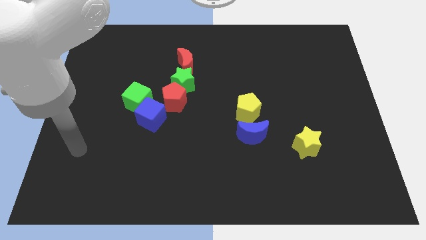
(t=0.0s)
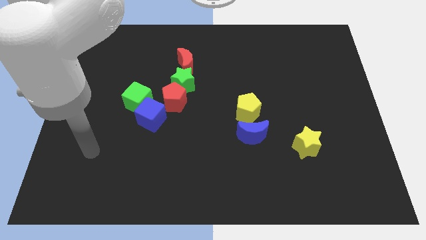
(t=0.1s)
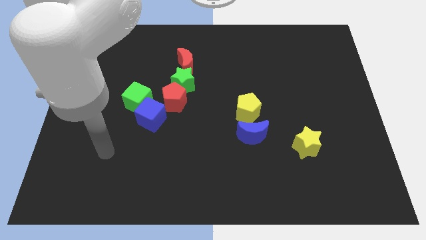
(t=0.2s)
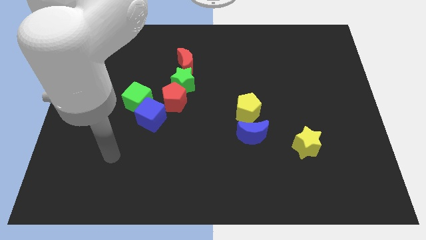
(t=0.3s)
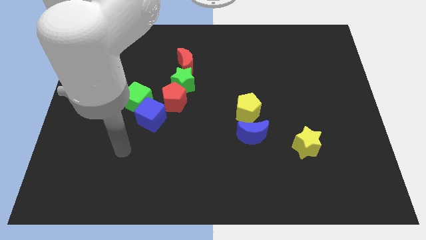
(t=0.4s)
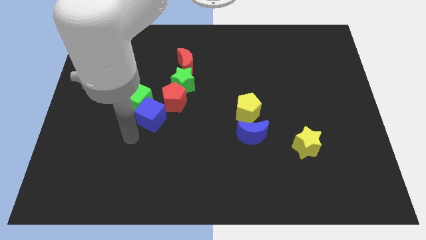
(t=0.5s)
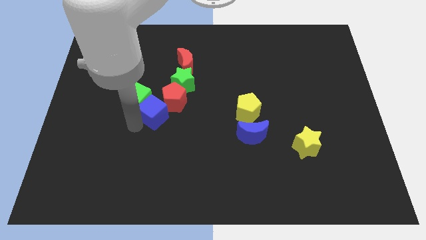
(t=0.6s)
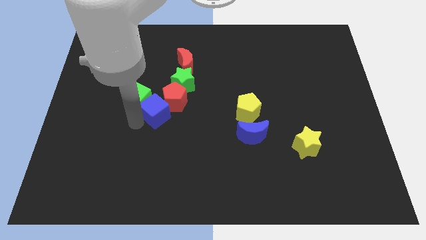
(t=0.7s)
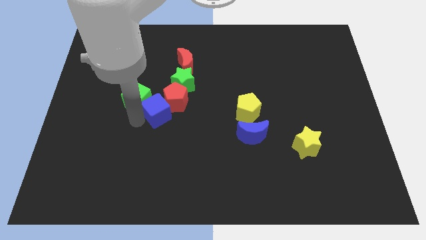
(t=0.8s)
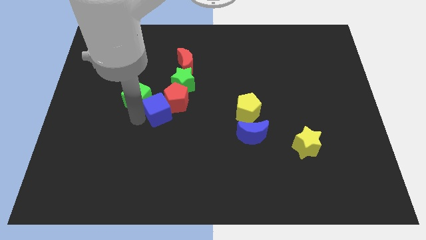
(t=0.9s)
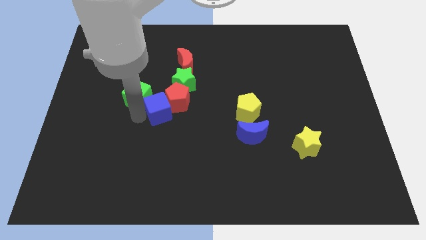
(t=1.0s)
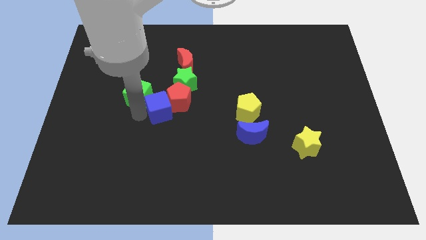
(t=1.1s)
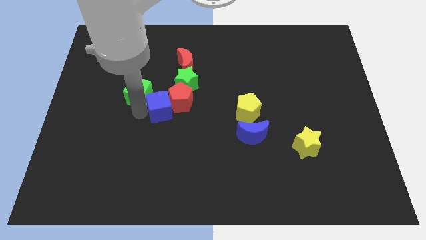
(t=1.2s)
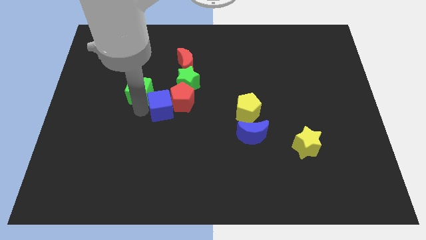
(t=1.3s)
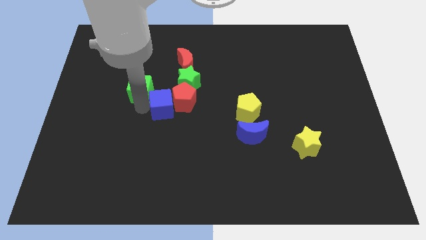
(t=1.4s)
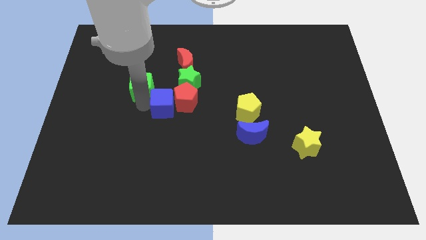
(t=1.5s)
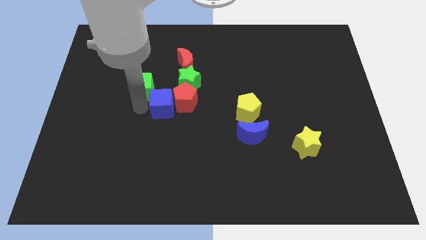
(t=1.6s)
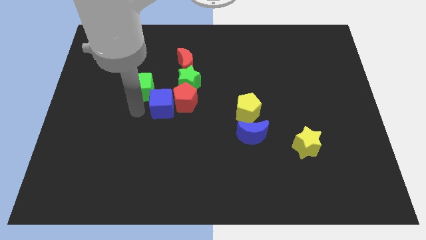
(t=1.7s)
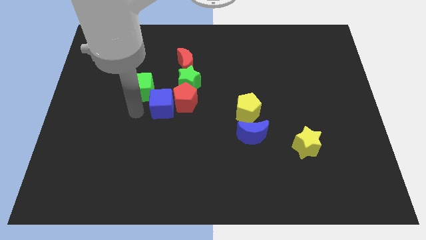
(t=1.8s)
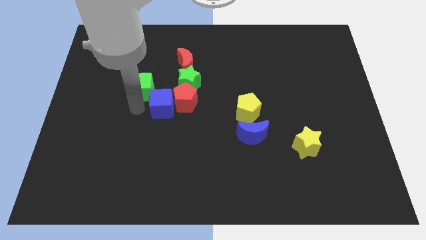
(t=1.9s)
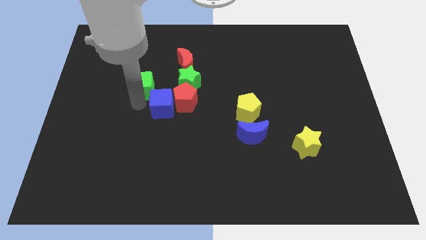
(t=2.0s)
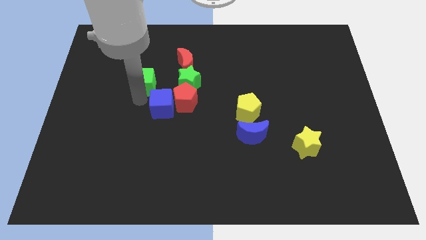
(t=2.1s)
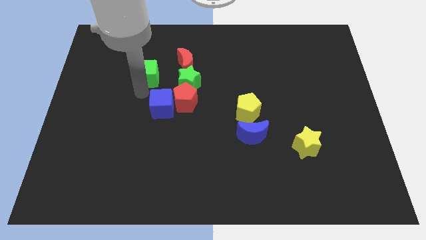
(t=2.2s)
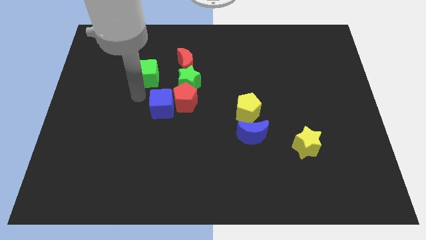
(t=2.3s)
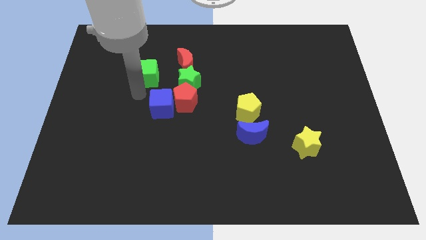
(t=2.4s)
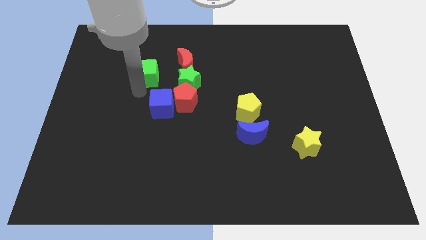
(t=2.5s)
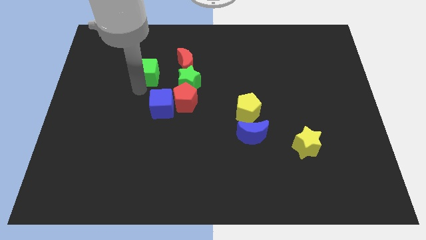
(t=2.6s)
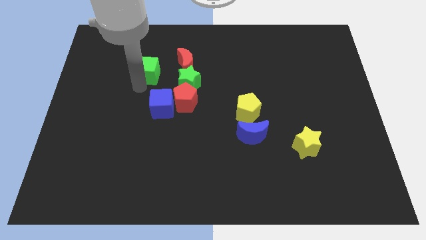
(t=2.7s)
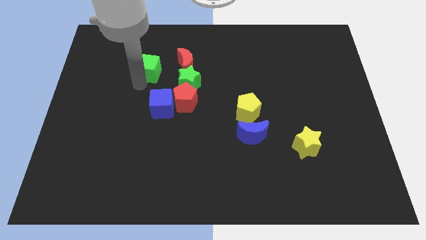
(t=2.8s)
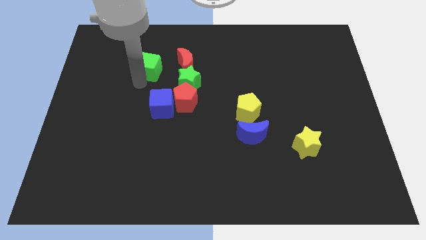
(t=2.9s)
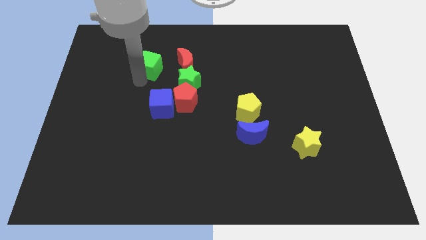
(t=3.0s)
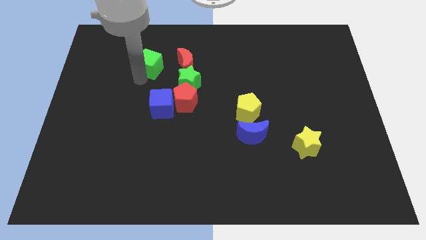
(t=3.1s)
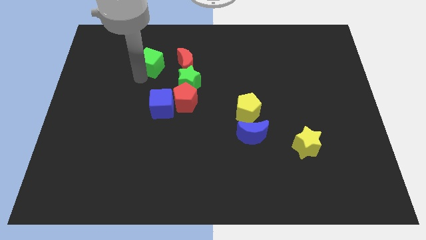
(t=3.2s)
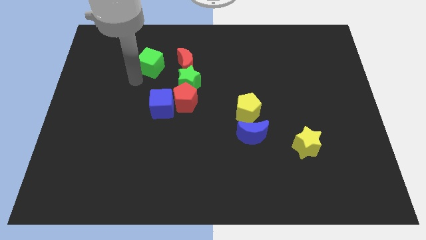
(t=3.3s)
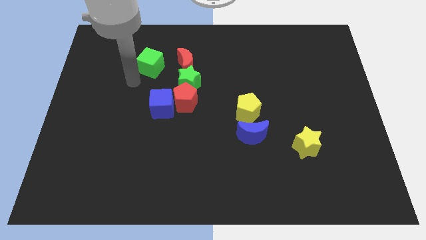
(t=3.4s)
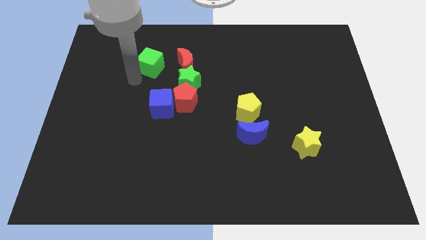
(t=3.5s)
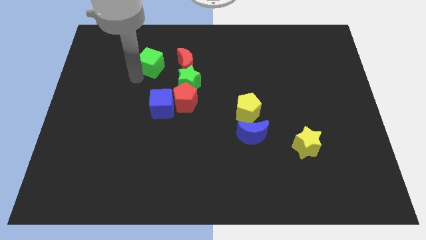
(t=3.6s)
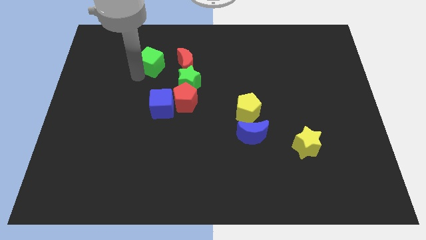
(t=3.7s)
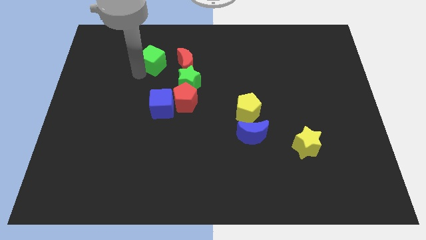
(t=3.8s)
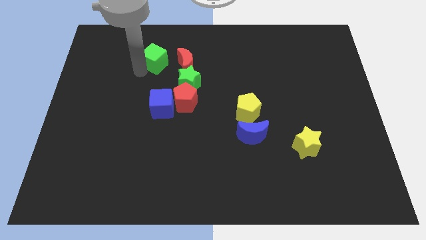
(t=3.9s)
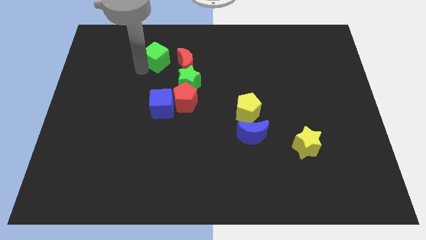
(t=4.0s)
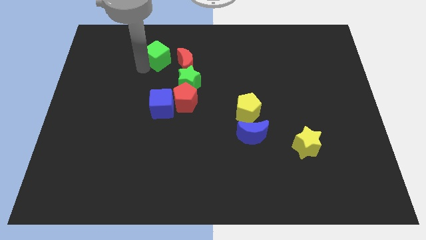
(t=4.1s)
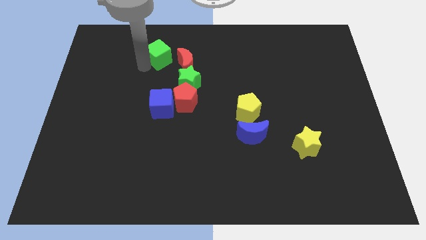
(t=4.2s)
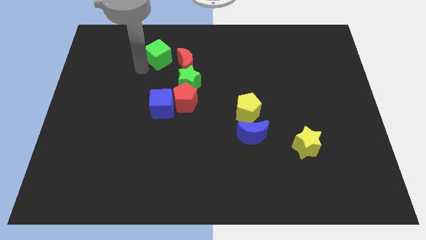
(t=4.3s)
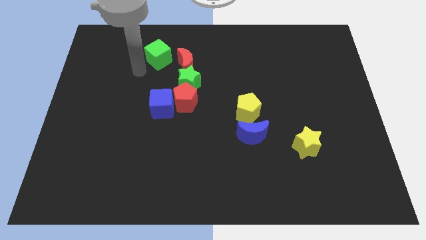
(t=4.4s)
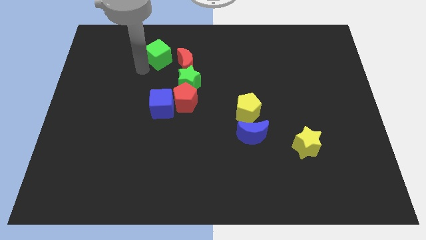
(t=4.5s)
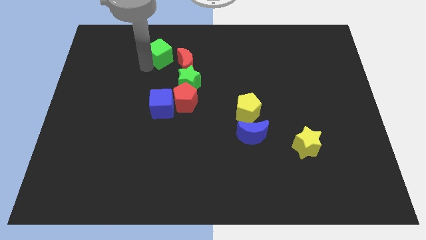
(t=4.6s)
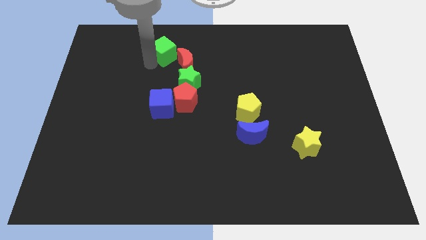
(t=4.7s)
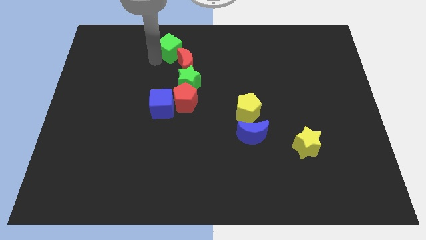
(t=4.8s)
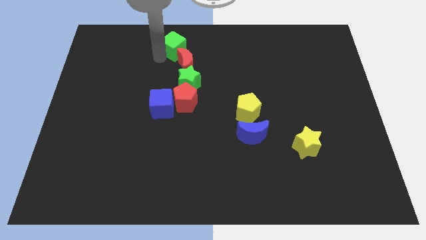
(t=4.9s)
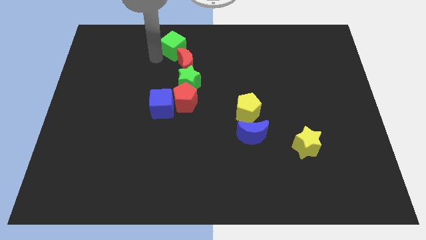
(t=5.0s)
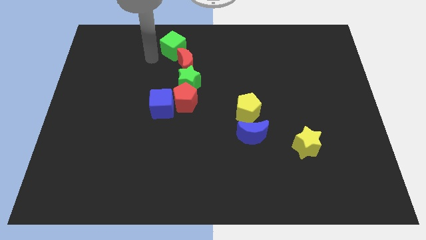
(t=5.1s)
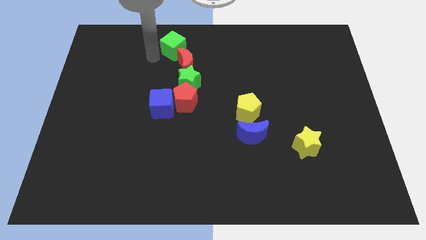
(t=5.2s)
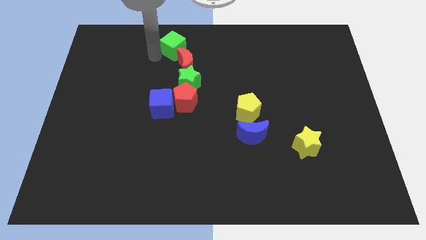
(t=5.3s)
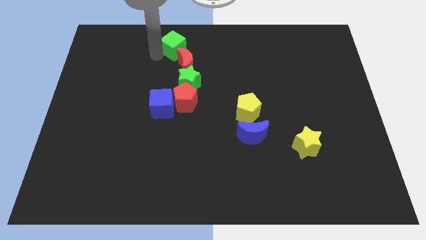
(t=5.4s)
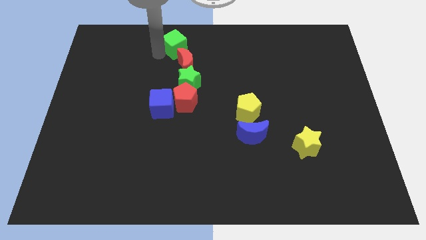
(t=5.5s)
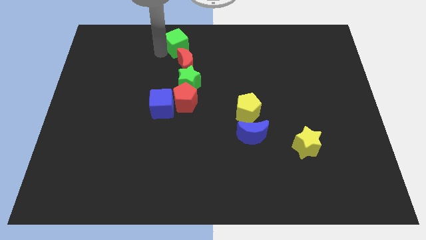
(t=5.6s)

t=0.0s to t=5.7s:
slide the green cube to the top side
